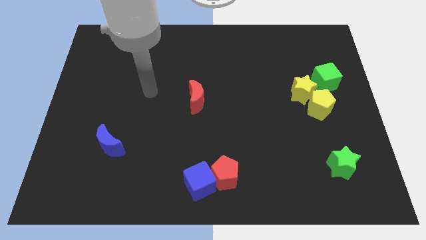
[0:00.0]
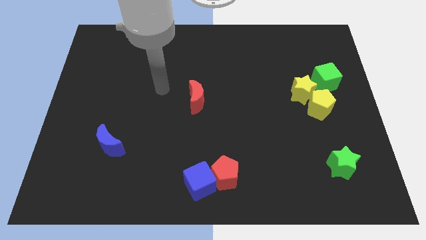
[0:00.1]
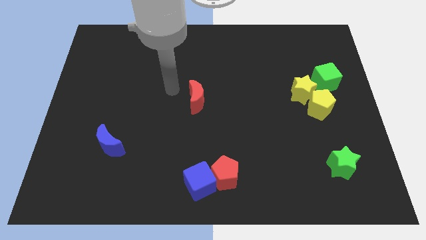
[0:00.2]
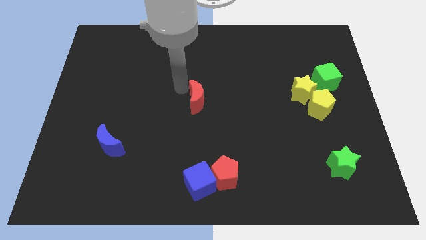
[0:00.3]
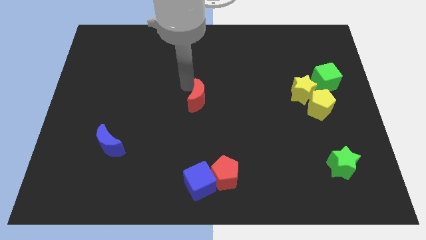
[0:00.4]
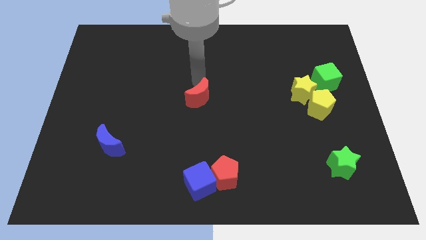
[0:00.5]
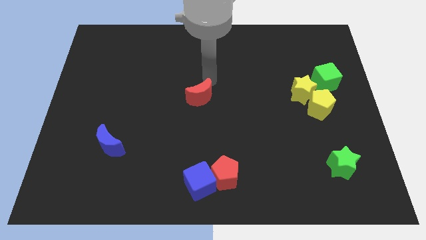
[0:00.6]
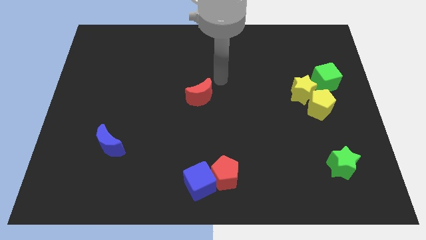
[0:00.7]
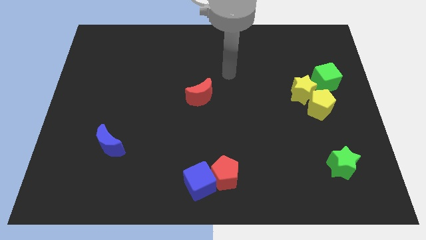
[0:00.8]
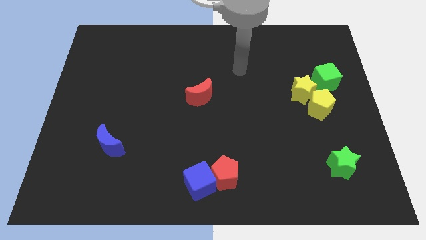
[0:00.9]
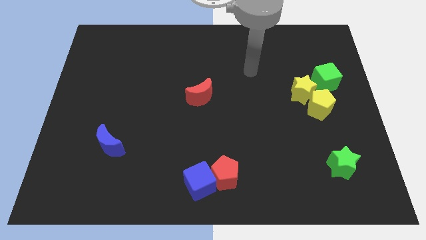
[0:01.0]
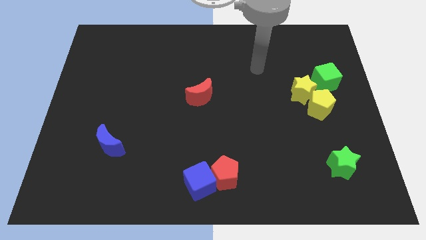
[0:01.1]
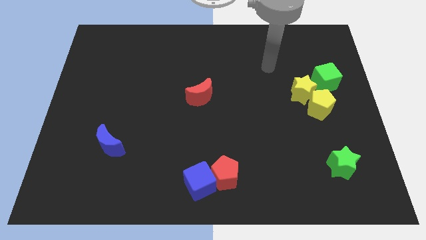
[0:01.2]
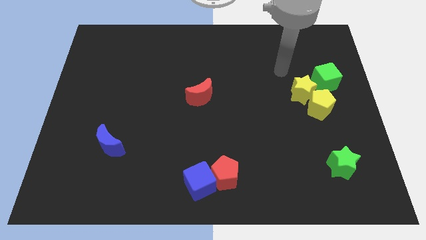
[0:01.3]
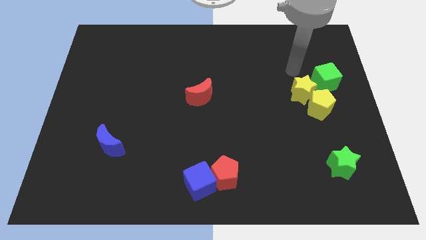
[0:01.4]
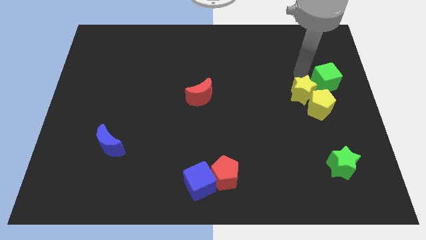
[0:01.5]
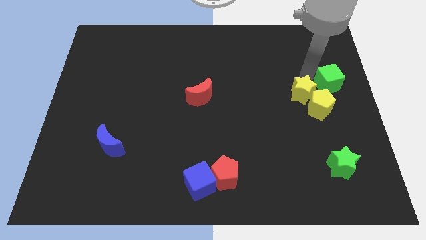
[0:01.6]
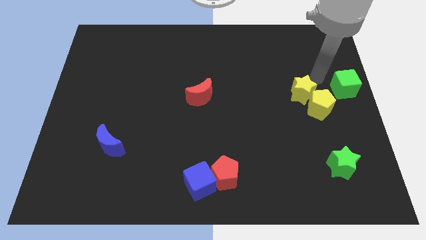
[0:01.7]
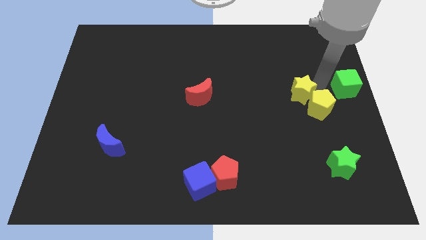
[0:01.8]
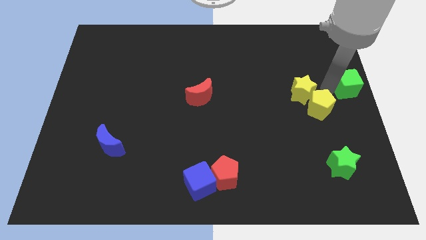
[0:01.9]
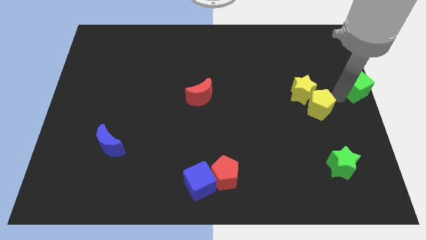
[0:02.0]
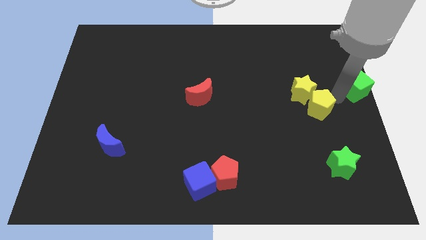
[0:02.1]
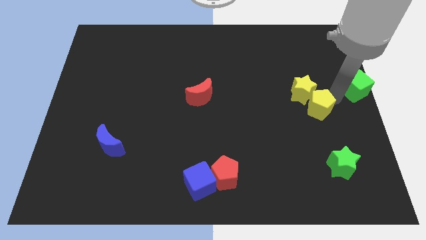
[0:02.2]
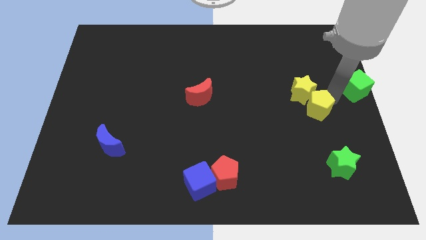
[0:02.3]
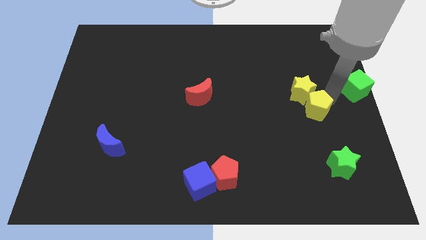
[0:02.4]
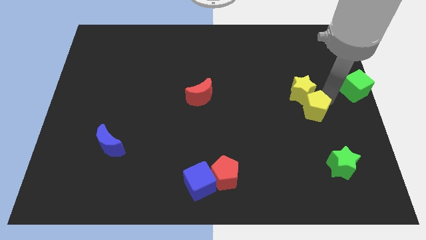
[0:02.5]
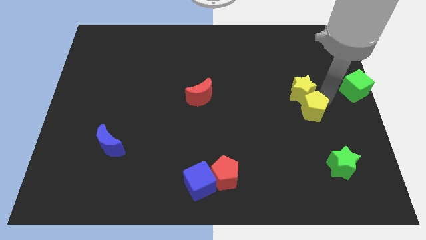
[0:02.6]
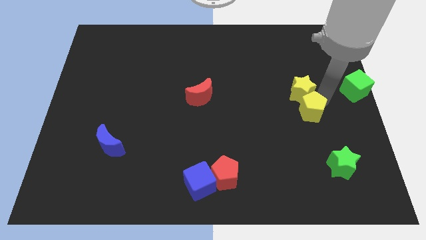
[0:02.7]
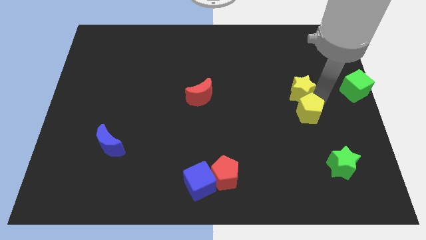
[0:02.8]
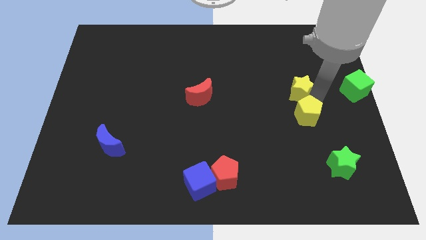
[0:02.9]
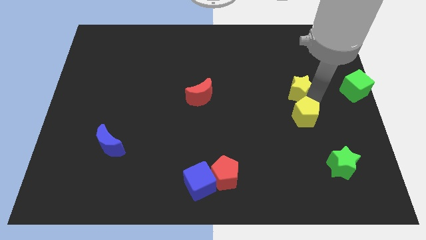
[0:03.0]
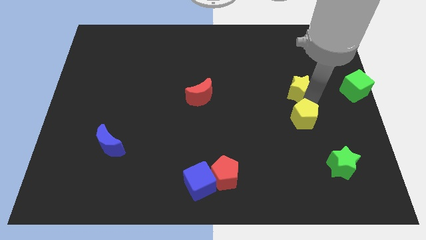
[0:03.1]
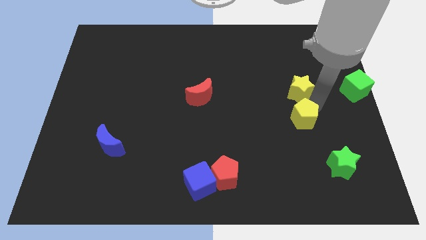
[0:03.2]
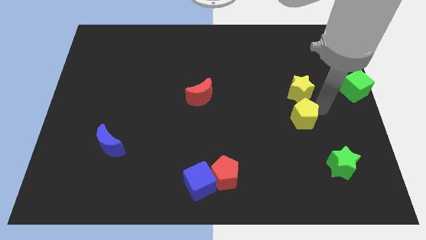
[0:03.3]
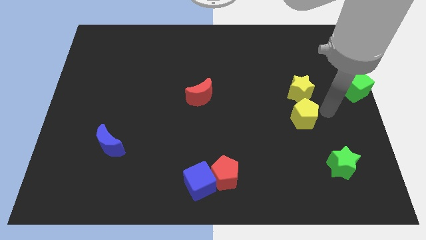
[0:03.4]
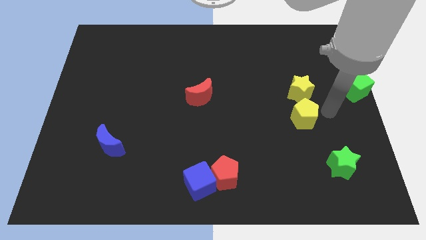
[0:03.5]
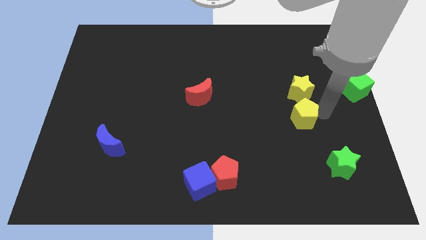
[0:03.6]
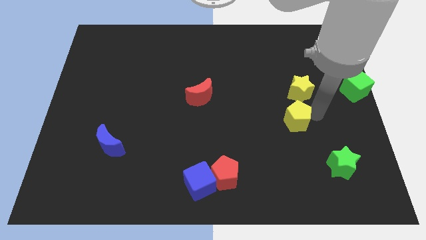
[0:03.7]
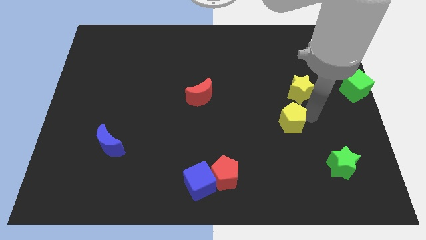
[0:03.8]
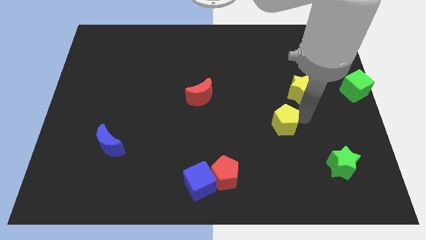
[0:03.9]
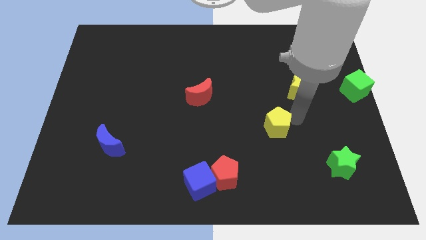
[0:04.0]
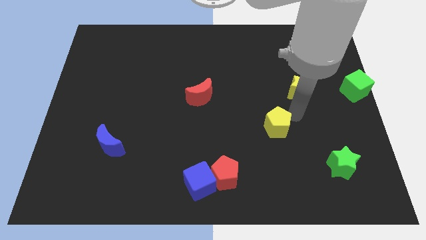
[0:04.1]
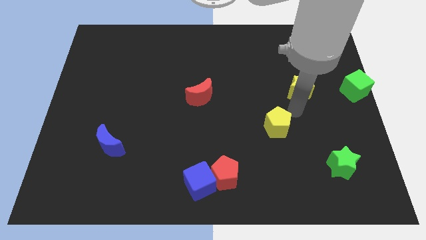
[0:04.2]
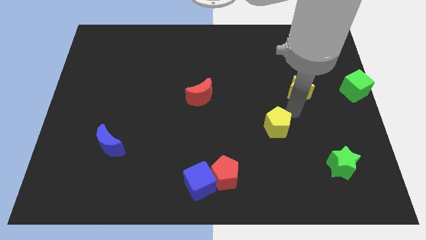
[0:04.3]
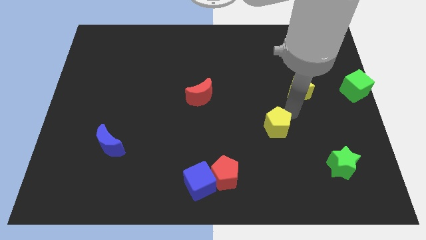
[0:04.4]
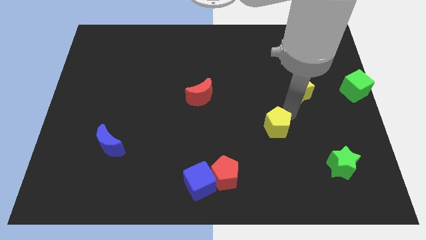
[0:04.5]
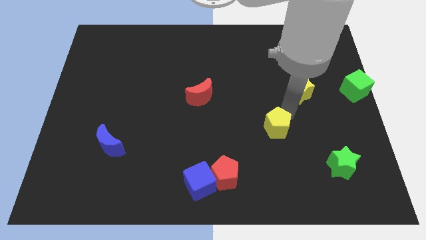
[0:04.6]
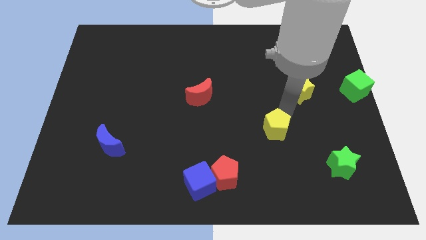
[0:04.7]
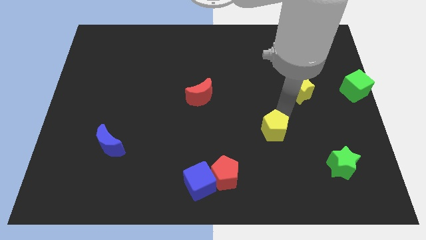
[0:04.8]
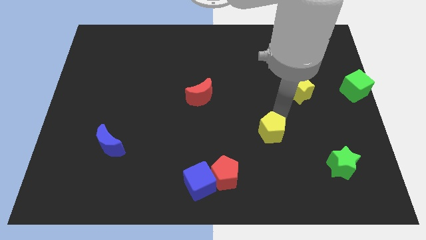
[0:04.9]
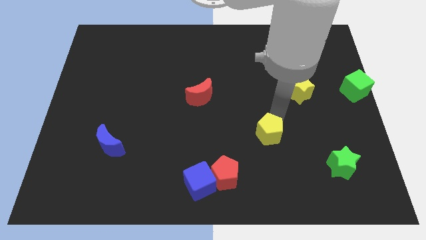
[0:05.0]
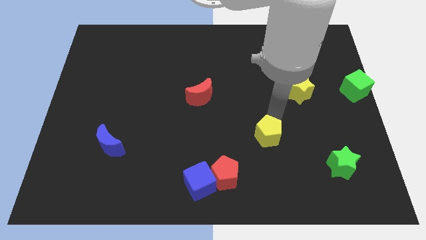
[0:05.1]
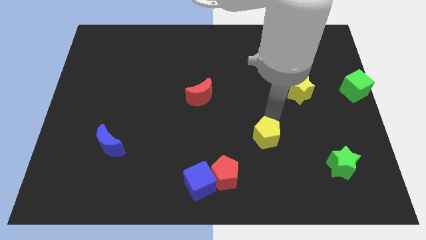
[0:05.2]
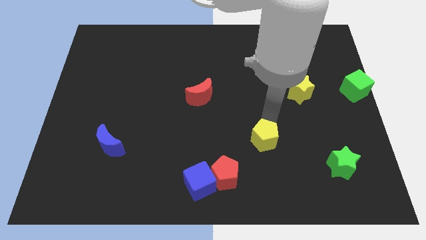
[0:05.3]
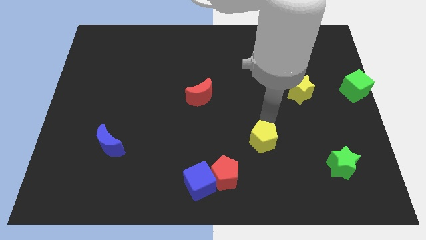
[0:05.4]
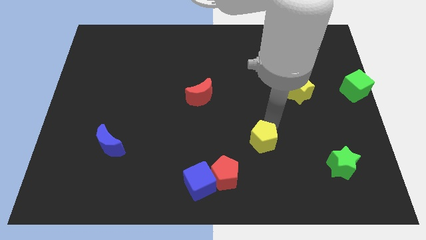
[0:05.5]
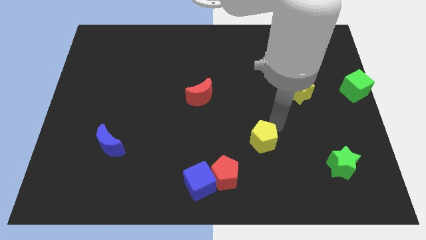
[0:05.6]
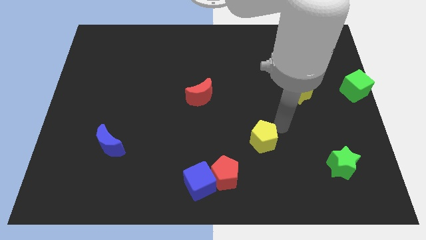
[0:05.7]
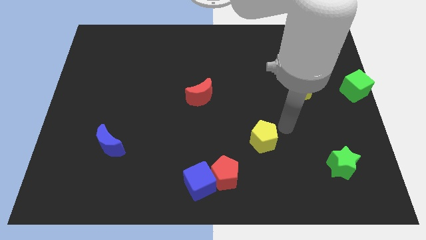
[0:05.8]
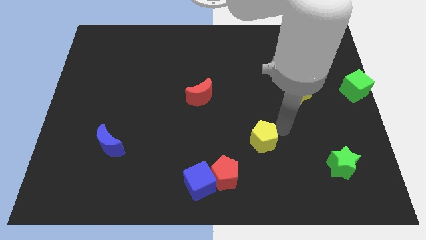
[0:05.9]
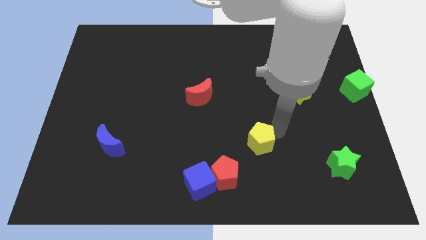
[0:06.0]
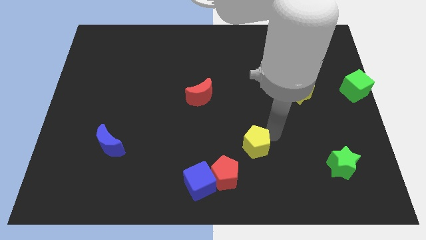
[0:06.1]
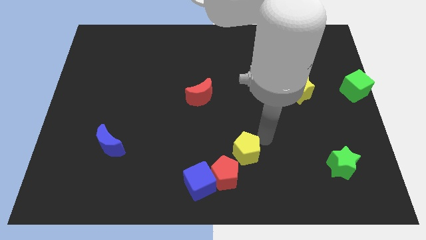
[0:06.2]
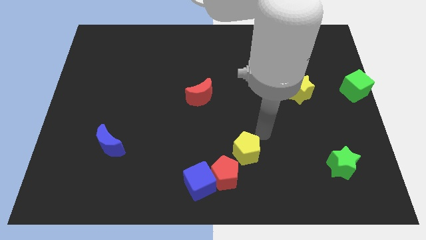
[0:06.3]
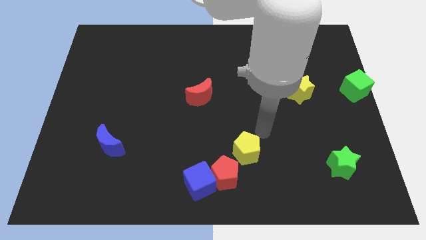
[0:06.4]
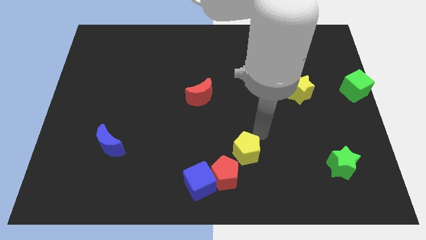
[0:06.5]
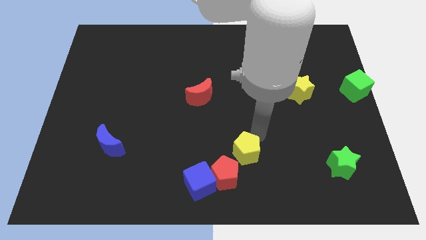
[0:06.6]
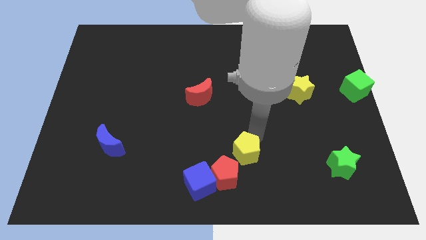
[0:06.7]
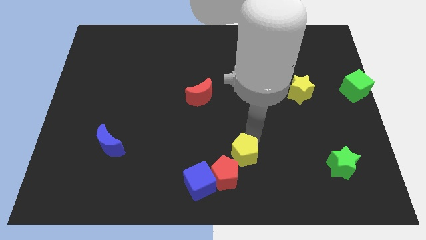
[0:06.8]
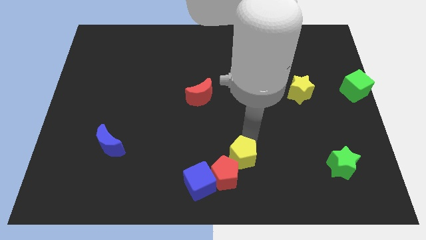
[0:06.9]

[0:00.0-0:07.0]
push the yellow pentagon towards the red pentagon

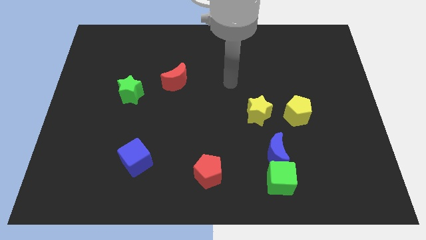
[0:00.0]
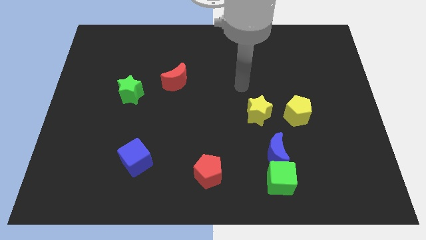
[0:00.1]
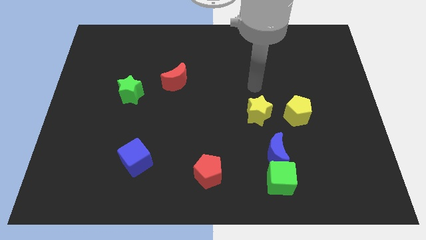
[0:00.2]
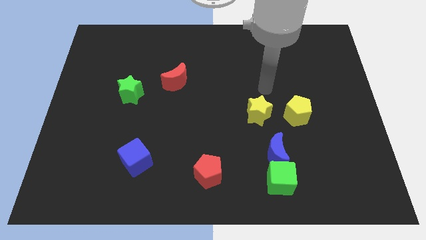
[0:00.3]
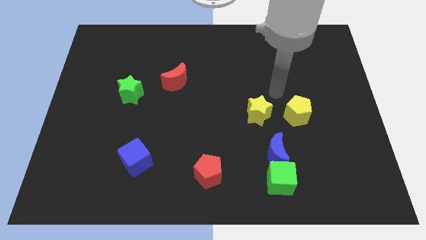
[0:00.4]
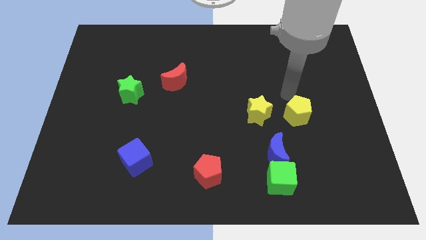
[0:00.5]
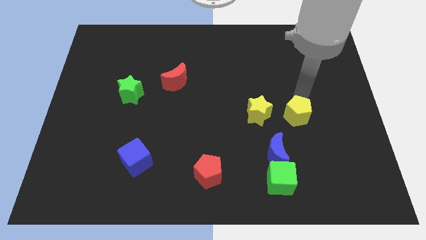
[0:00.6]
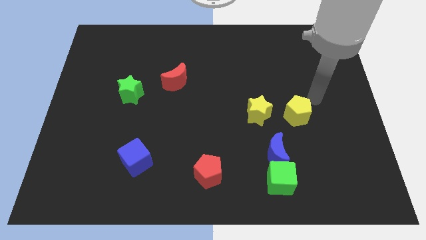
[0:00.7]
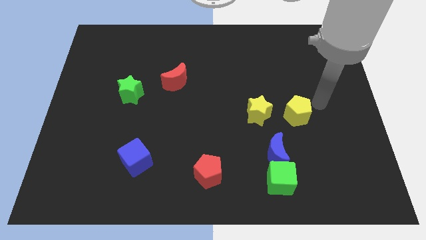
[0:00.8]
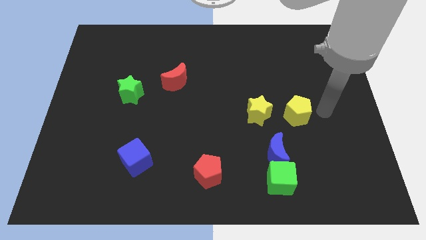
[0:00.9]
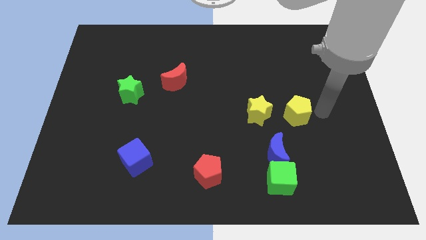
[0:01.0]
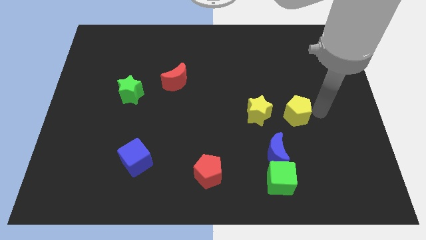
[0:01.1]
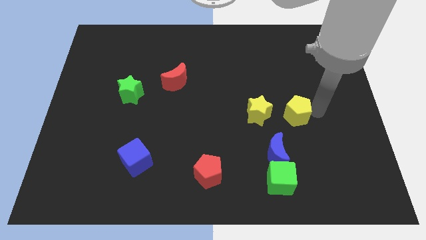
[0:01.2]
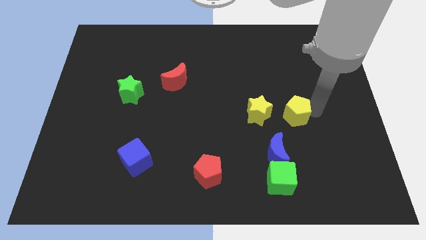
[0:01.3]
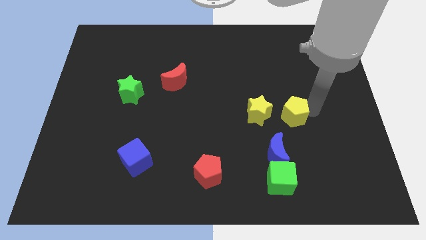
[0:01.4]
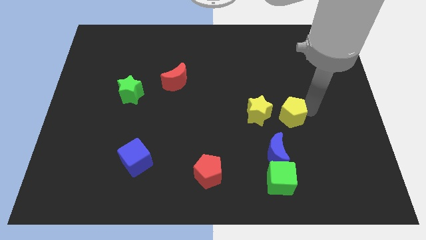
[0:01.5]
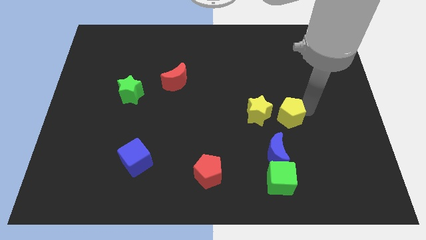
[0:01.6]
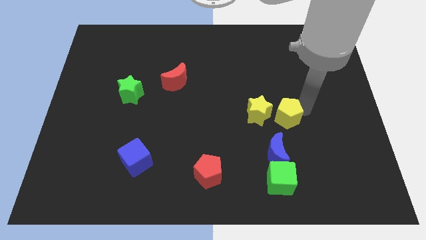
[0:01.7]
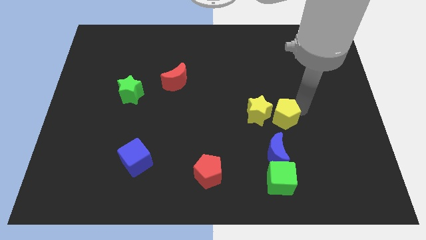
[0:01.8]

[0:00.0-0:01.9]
put the yellow pentagon close to the yellow star
